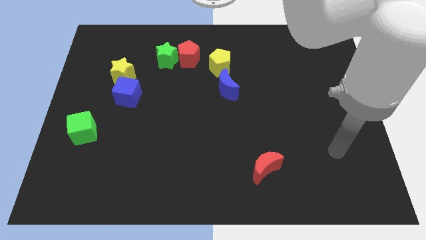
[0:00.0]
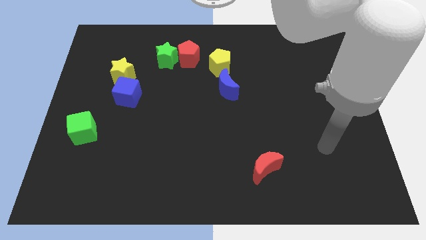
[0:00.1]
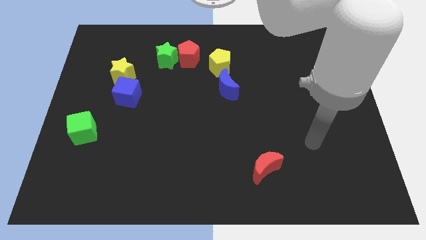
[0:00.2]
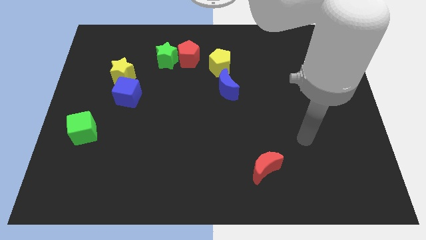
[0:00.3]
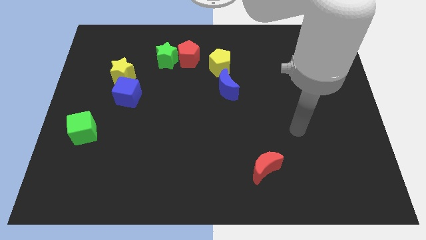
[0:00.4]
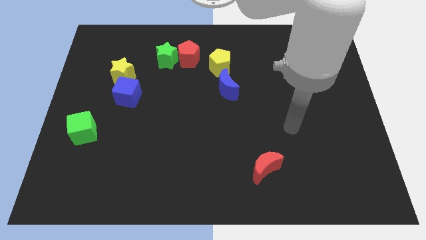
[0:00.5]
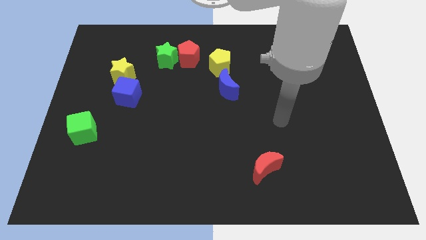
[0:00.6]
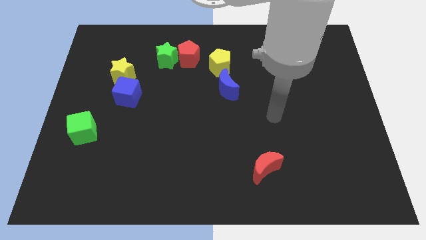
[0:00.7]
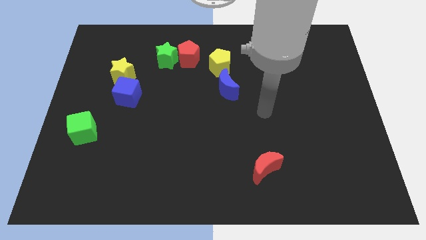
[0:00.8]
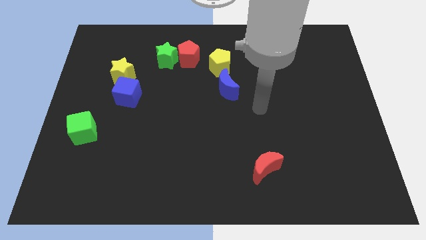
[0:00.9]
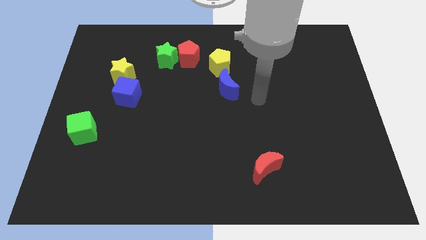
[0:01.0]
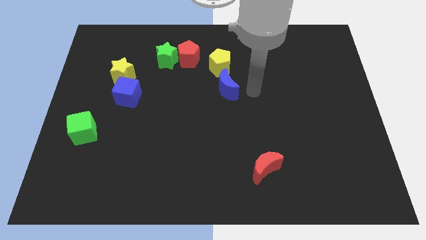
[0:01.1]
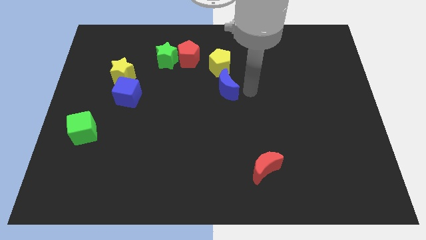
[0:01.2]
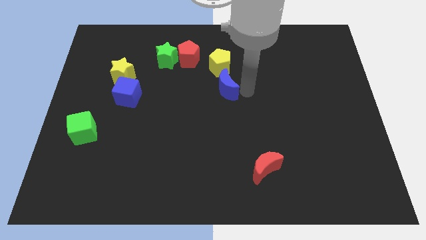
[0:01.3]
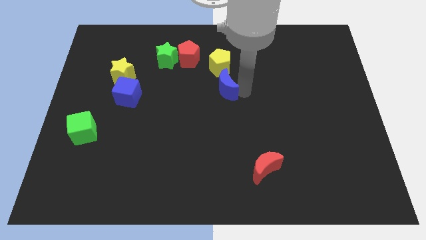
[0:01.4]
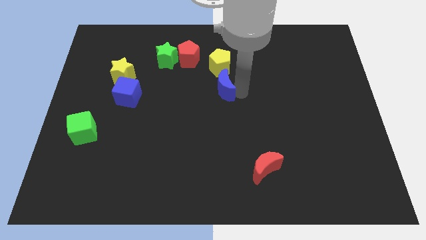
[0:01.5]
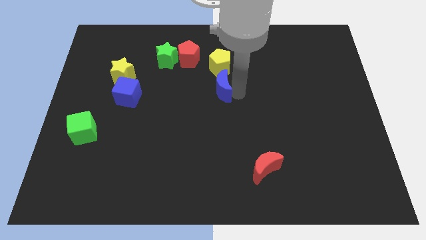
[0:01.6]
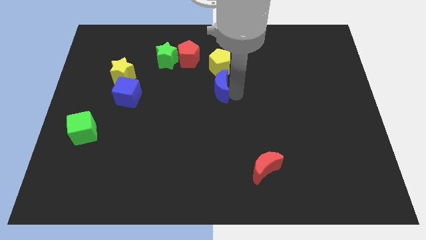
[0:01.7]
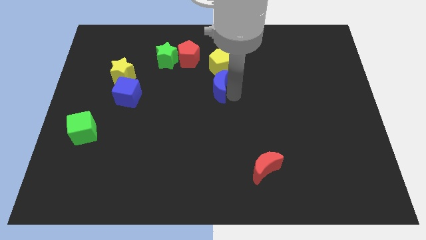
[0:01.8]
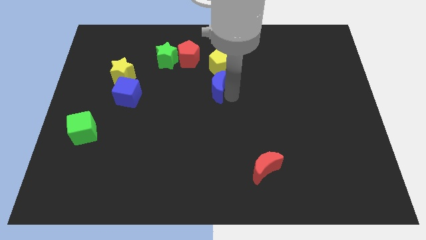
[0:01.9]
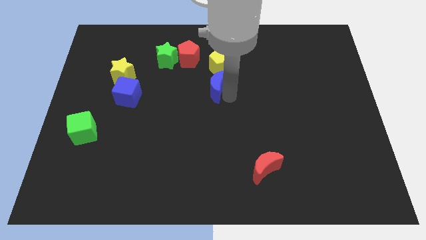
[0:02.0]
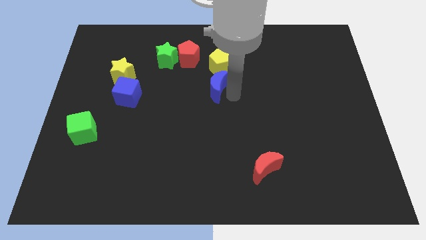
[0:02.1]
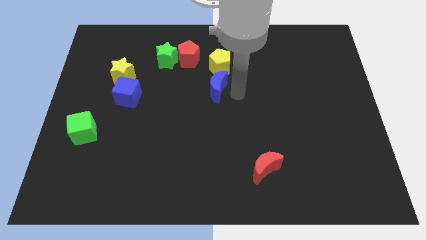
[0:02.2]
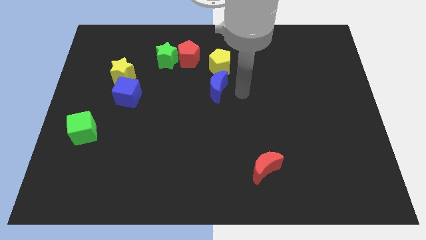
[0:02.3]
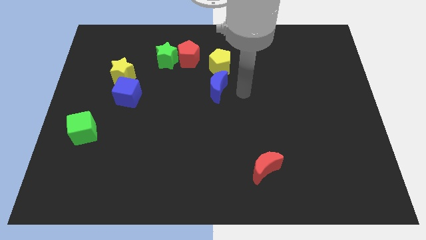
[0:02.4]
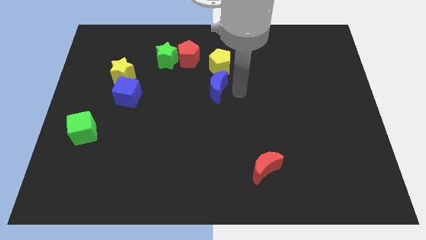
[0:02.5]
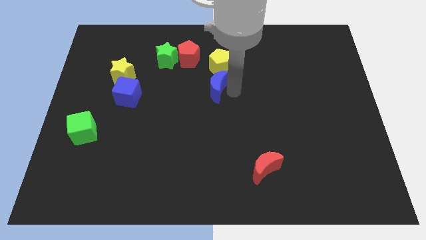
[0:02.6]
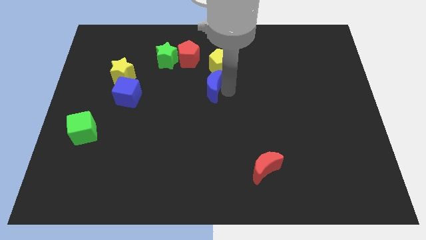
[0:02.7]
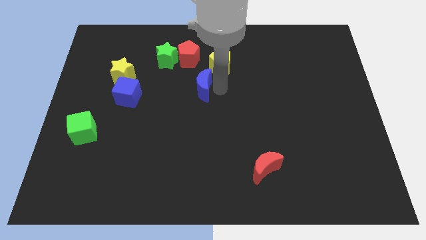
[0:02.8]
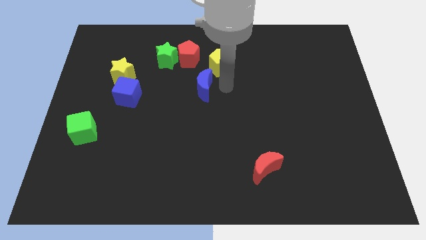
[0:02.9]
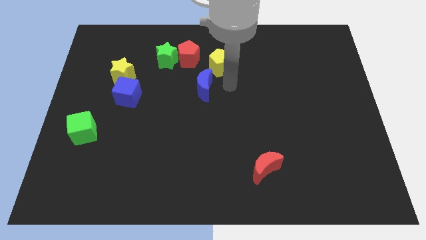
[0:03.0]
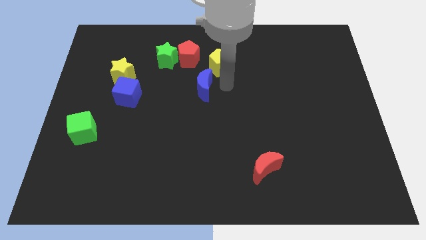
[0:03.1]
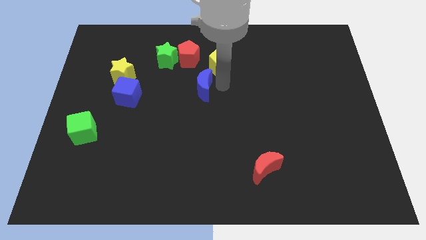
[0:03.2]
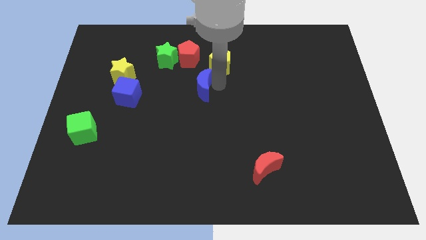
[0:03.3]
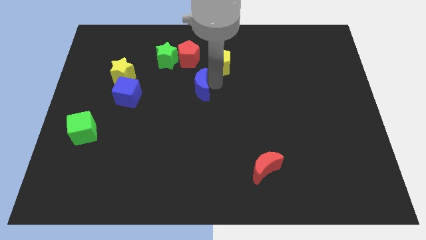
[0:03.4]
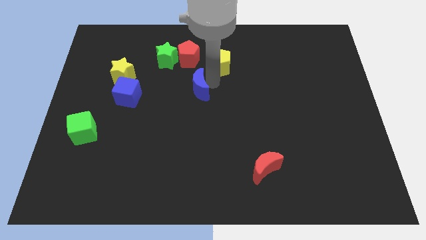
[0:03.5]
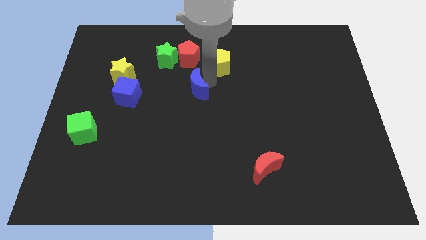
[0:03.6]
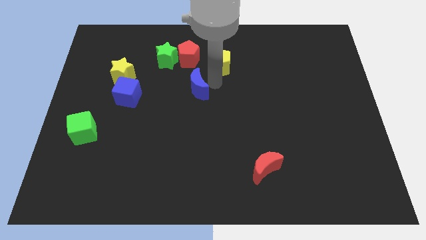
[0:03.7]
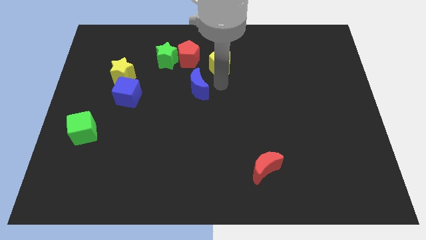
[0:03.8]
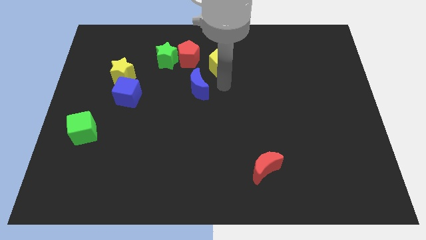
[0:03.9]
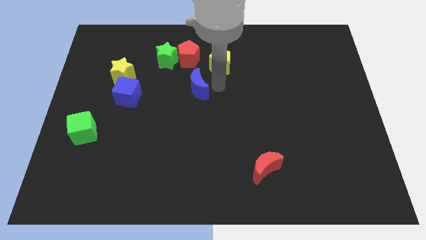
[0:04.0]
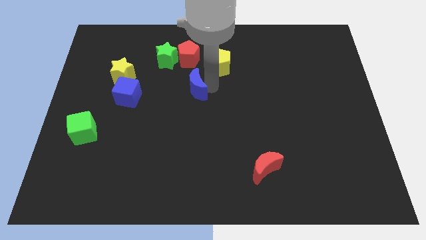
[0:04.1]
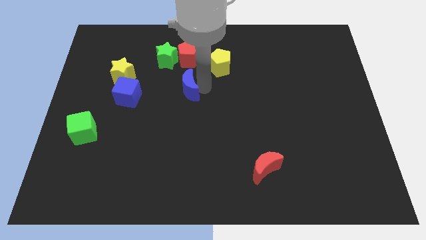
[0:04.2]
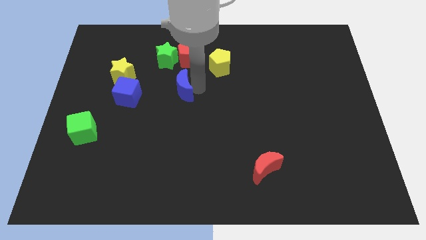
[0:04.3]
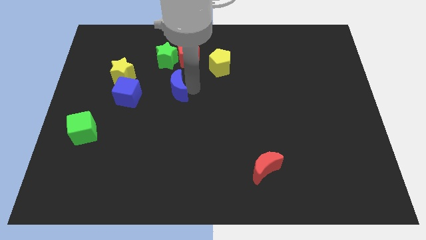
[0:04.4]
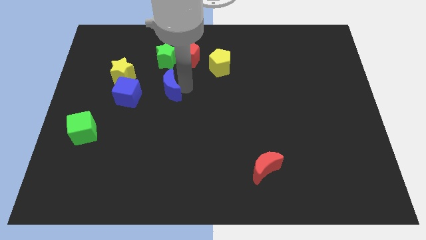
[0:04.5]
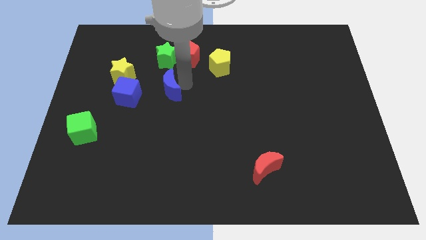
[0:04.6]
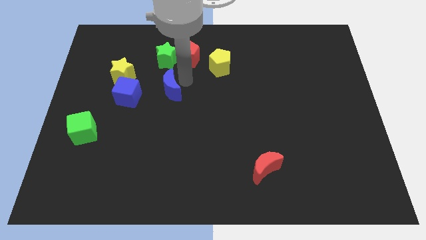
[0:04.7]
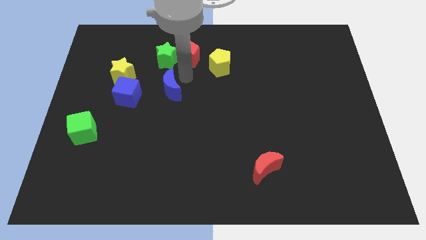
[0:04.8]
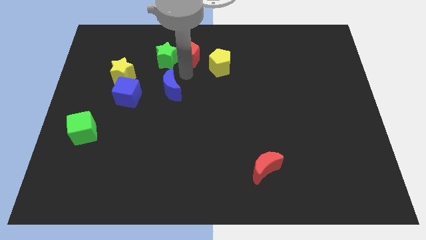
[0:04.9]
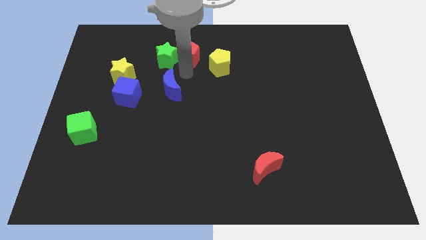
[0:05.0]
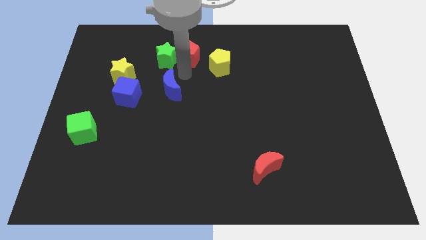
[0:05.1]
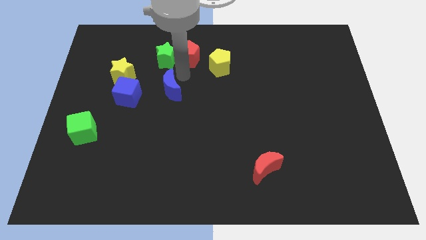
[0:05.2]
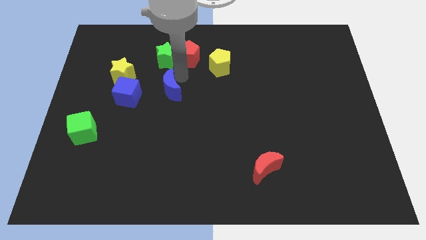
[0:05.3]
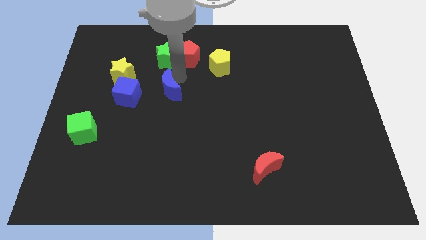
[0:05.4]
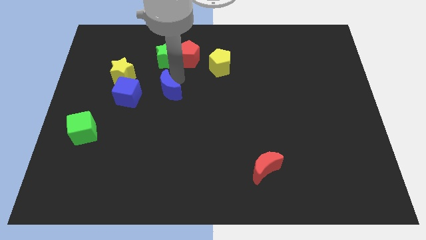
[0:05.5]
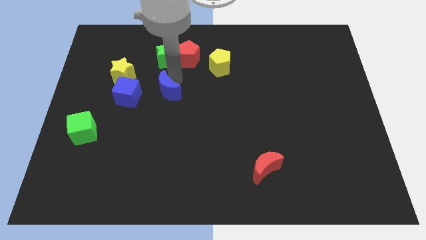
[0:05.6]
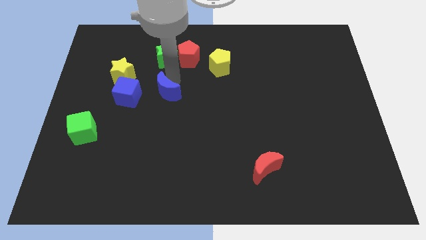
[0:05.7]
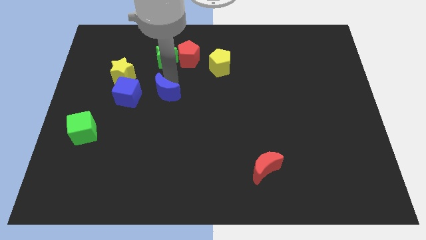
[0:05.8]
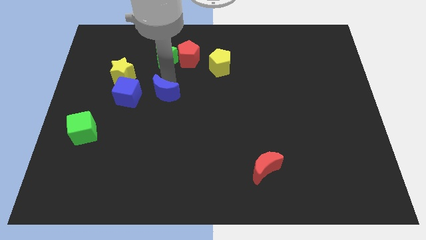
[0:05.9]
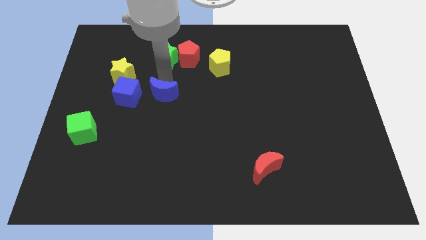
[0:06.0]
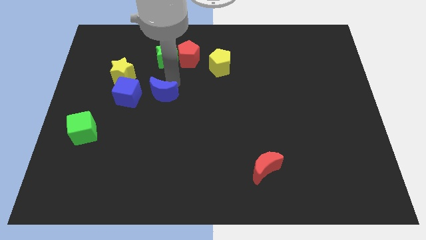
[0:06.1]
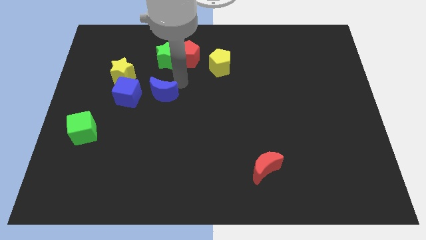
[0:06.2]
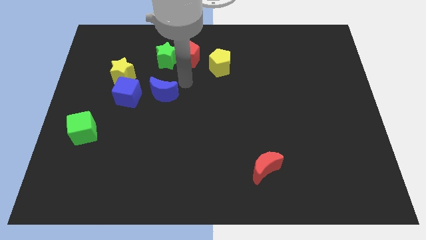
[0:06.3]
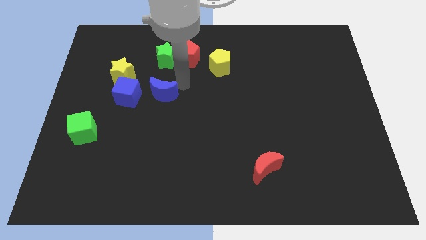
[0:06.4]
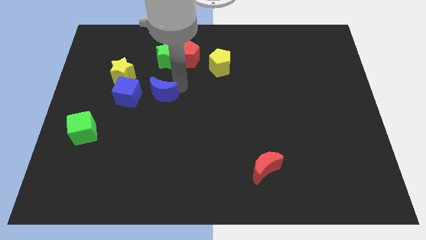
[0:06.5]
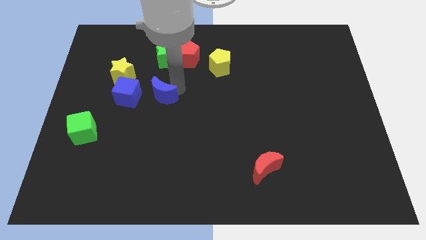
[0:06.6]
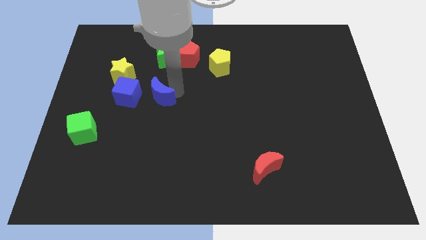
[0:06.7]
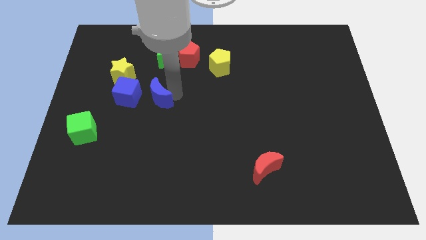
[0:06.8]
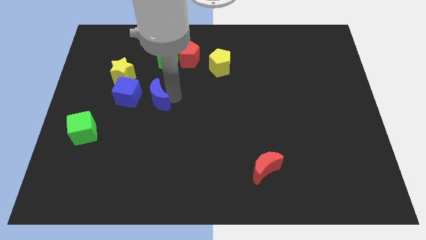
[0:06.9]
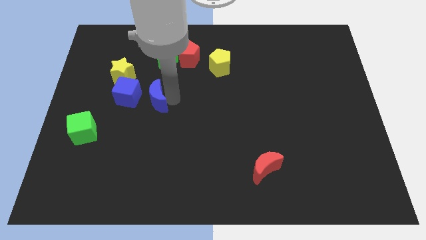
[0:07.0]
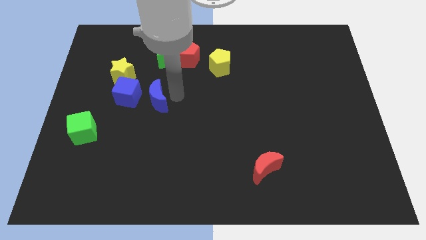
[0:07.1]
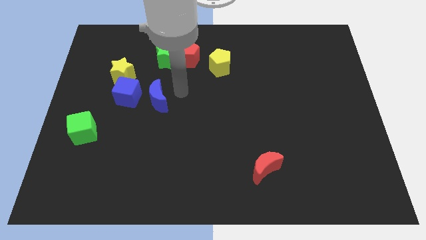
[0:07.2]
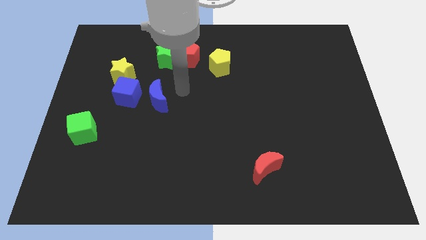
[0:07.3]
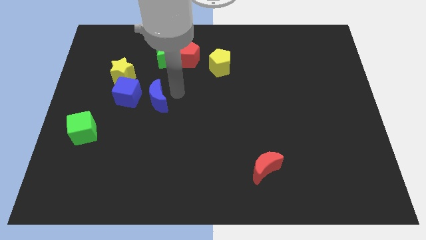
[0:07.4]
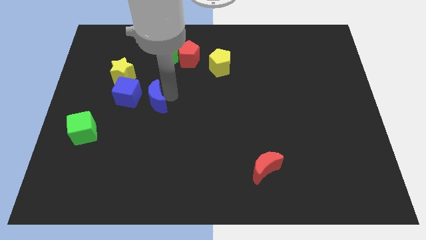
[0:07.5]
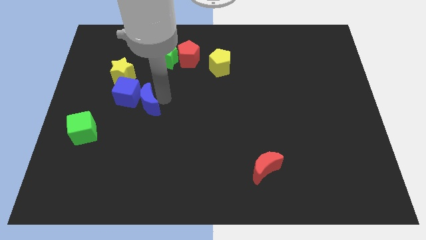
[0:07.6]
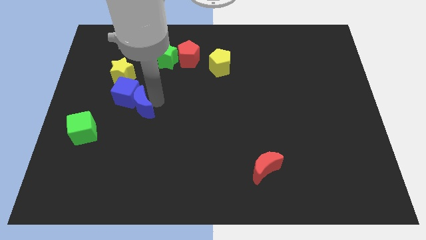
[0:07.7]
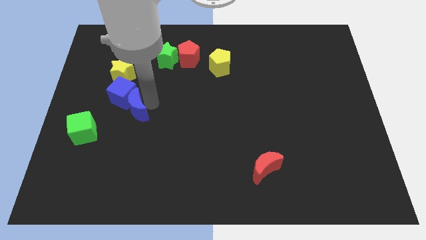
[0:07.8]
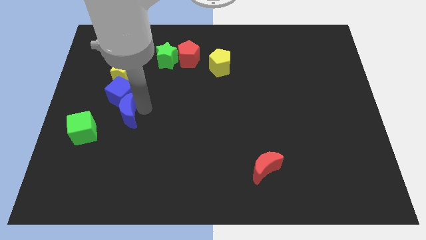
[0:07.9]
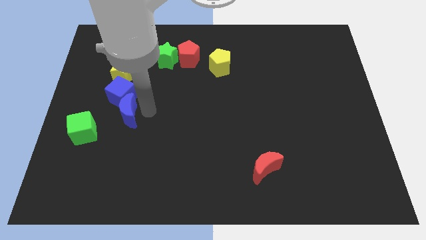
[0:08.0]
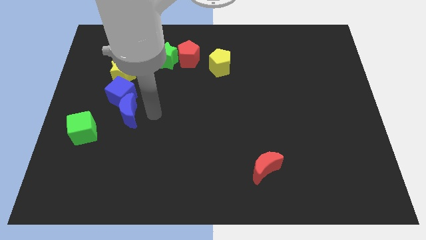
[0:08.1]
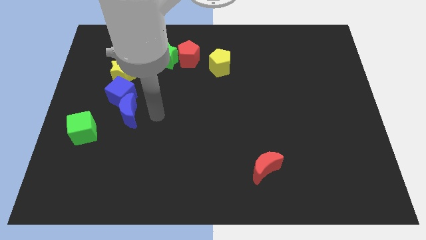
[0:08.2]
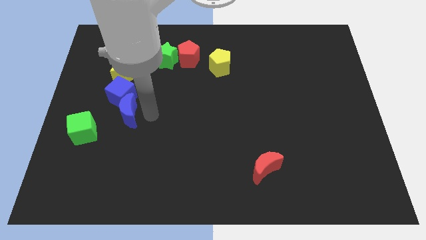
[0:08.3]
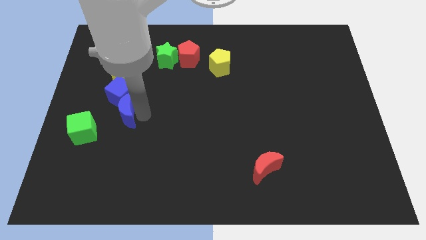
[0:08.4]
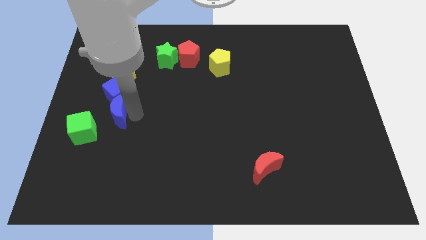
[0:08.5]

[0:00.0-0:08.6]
push the blue moon to the bottom left side of the blue cube
